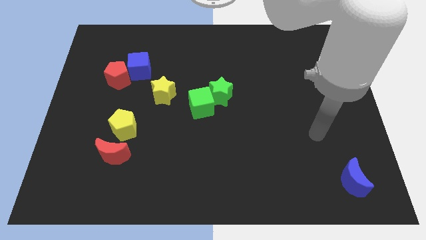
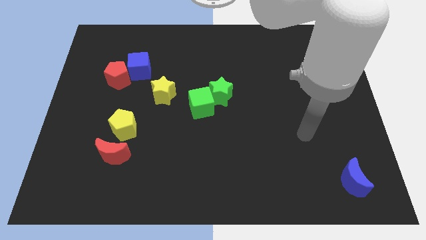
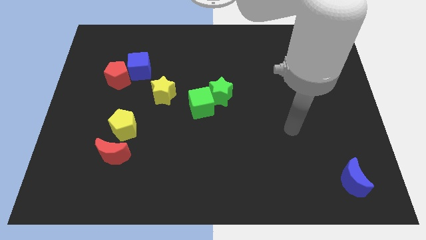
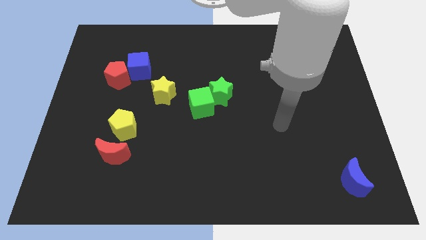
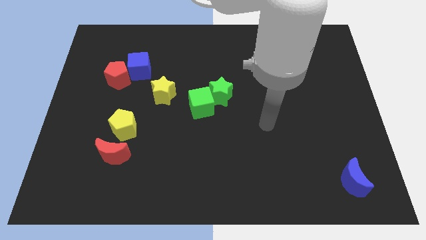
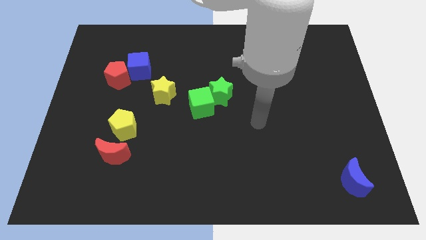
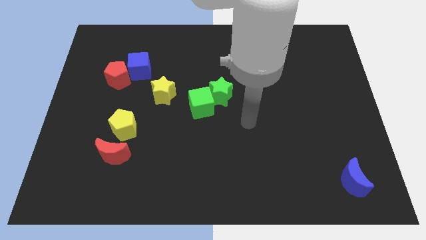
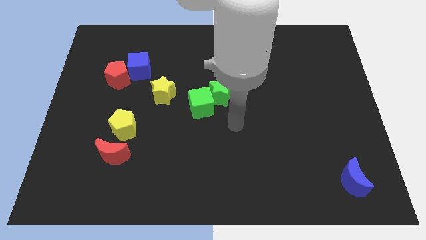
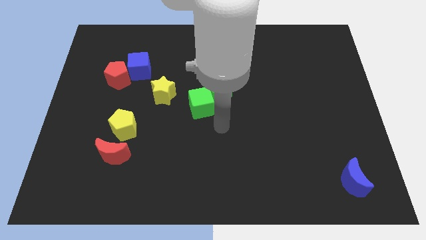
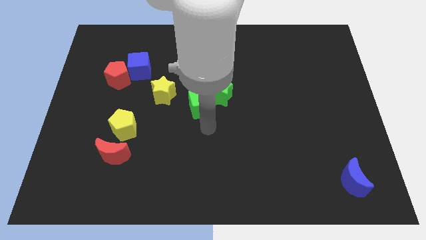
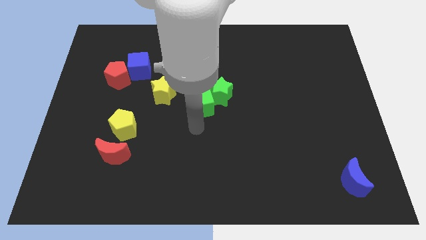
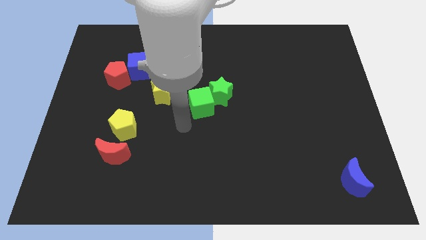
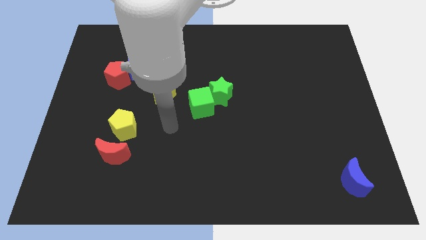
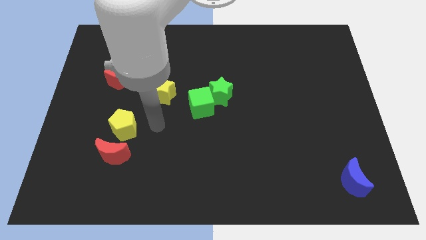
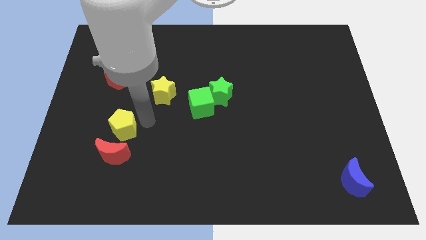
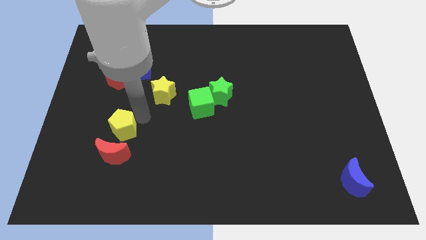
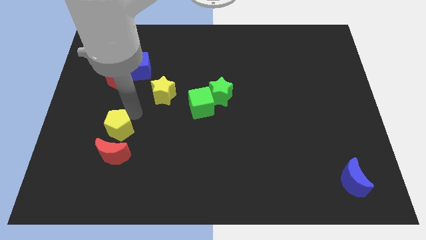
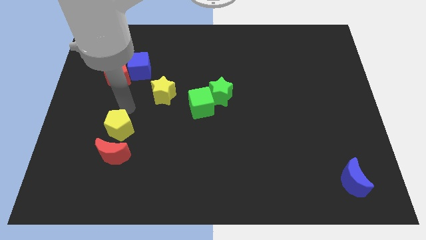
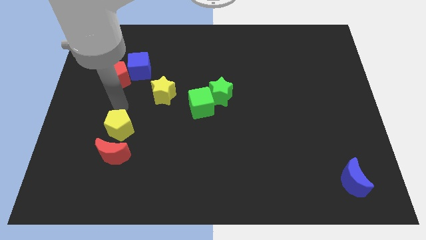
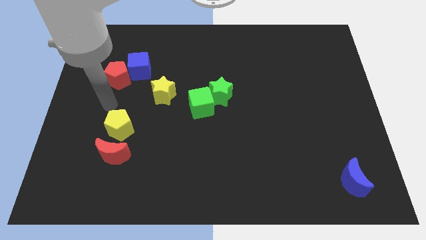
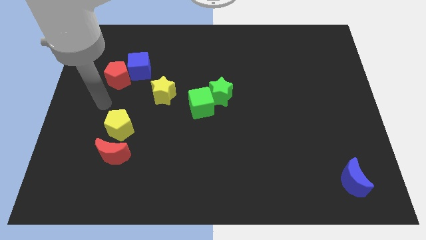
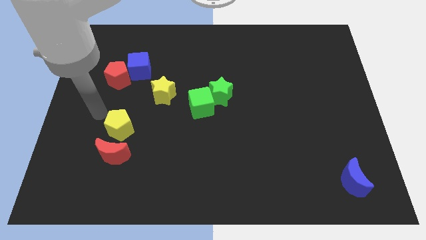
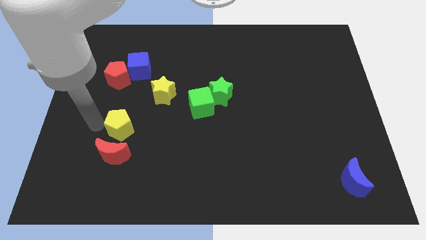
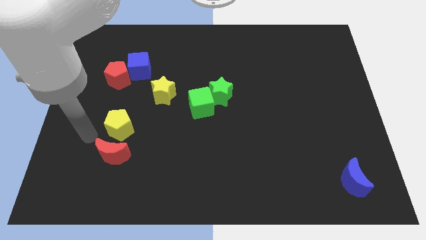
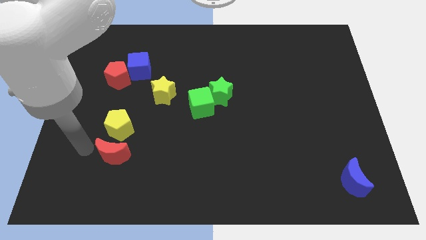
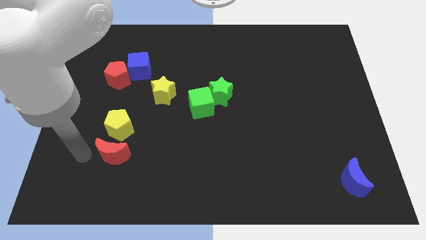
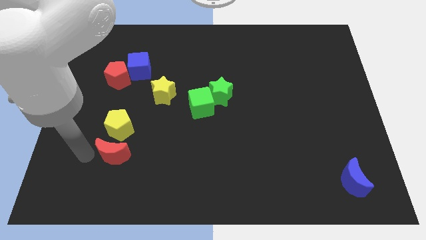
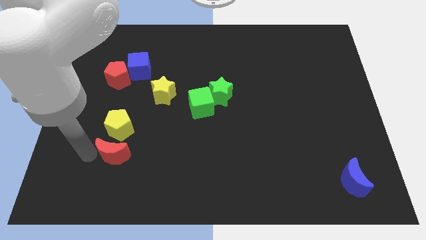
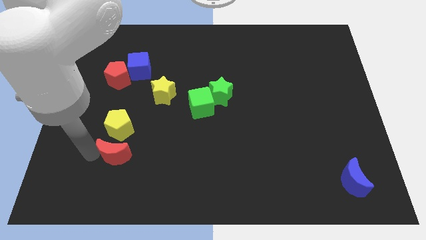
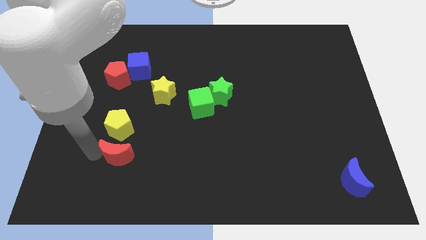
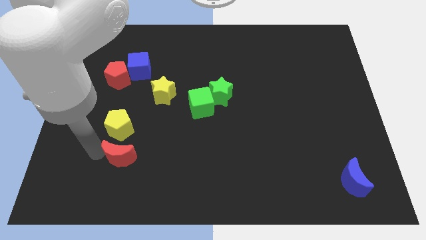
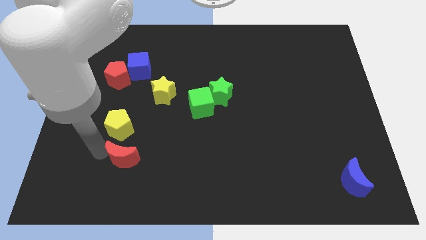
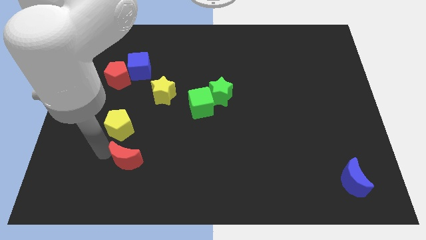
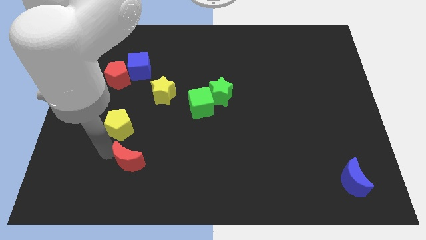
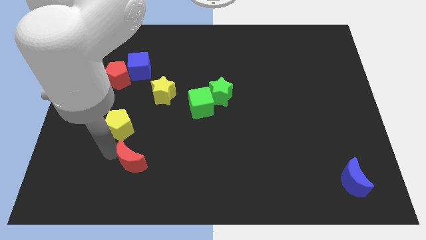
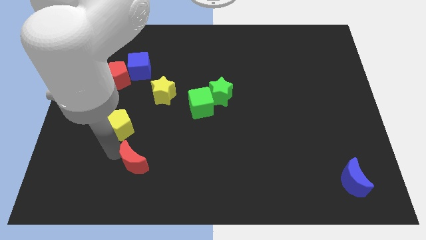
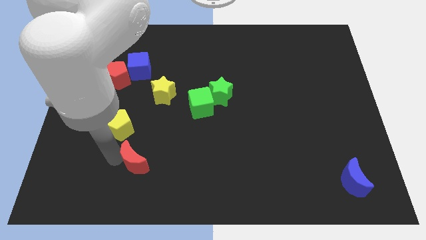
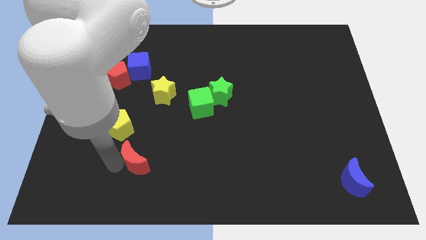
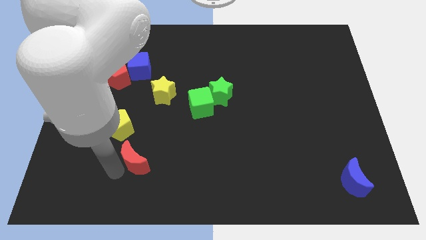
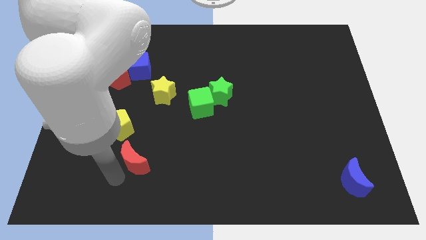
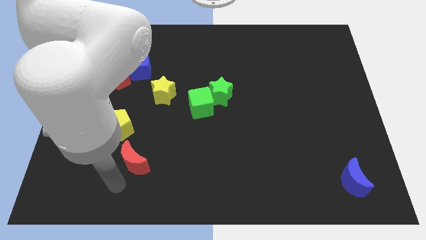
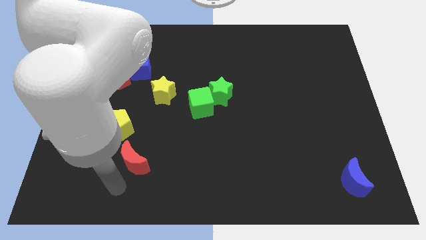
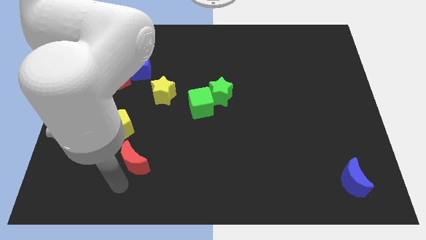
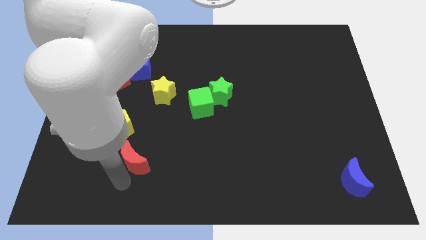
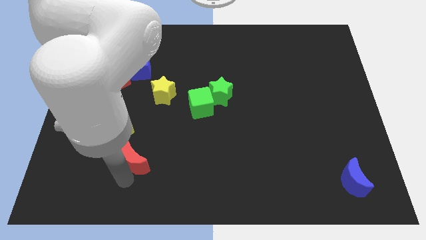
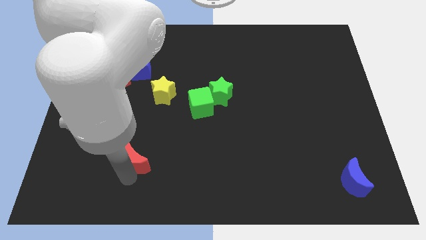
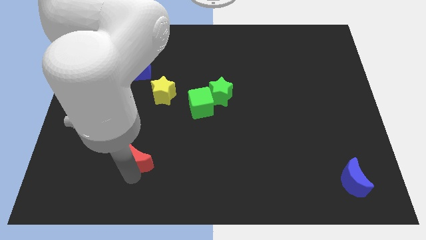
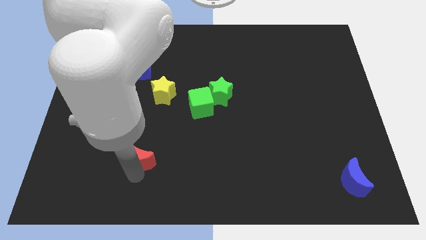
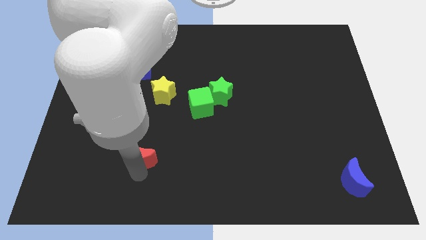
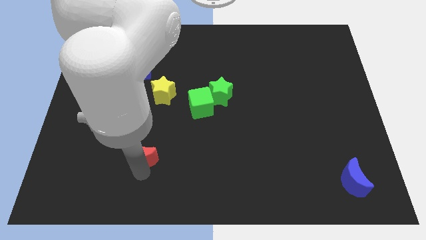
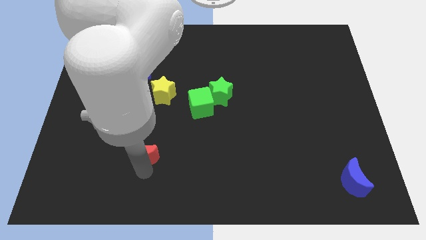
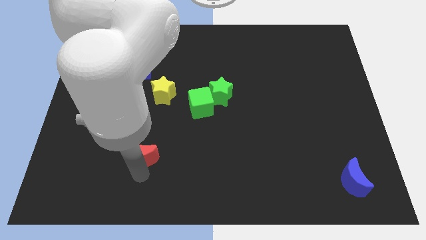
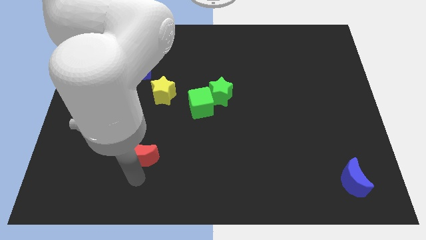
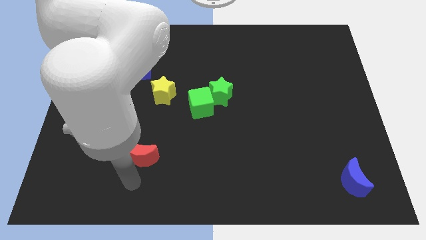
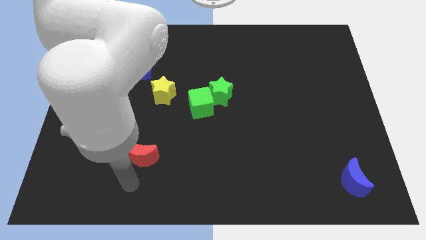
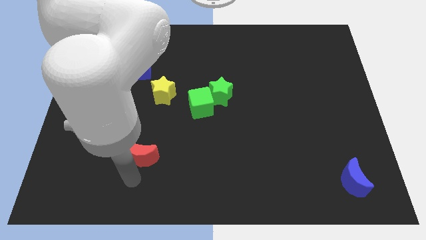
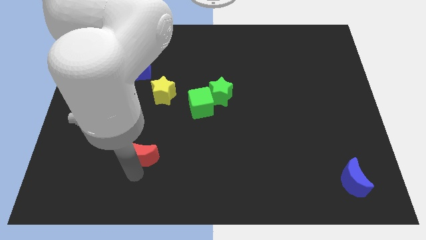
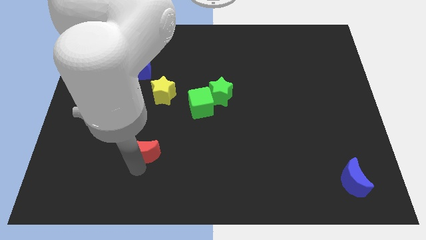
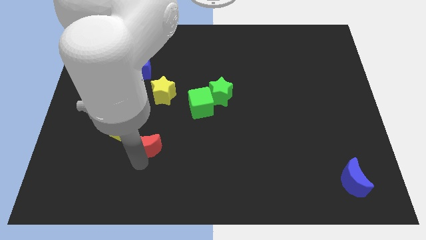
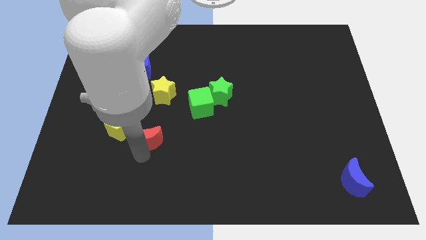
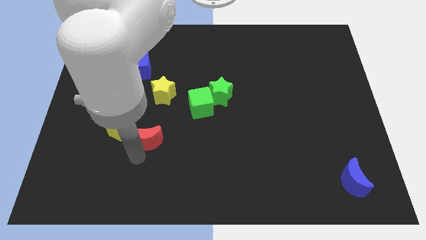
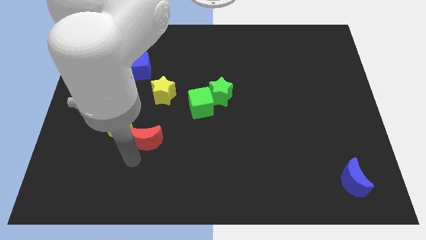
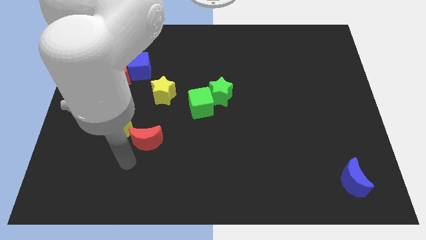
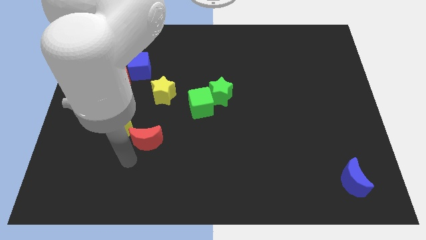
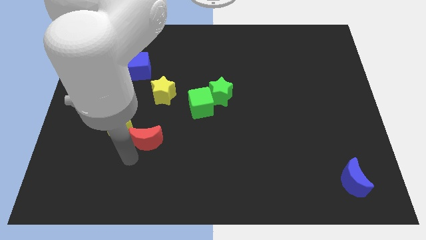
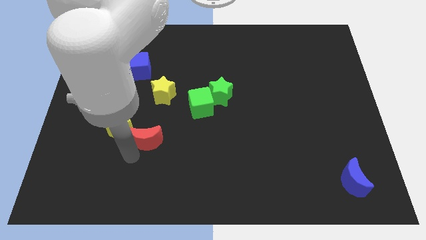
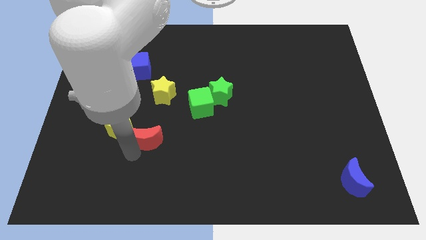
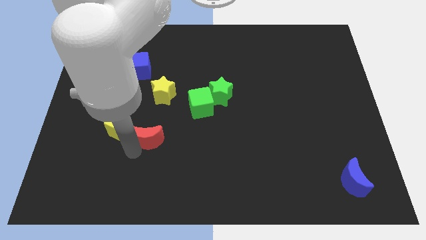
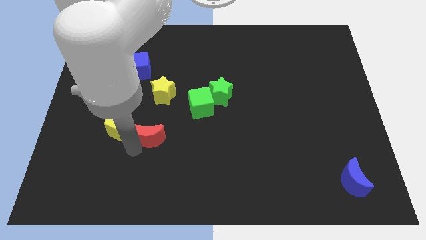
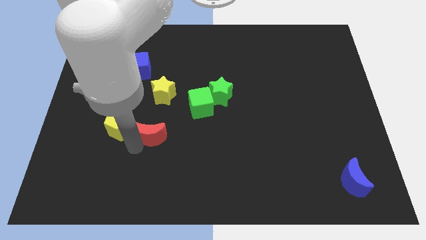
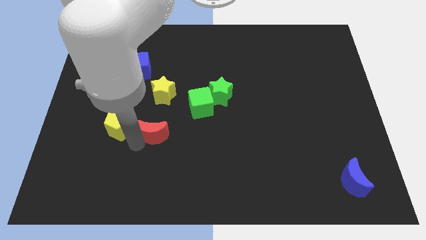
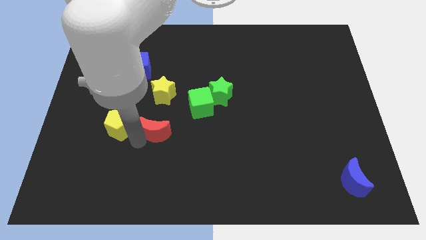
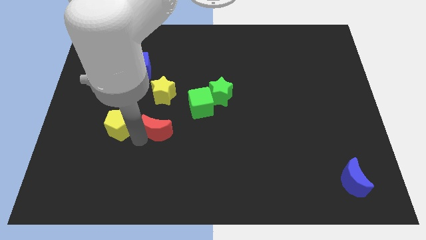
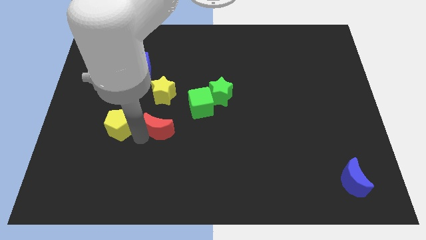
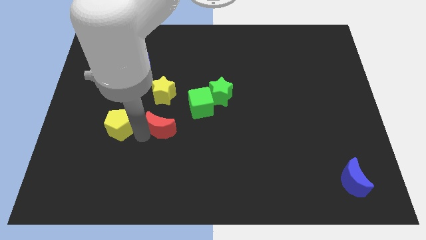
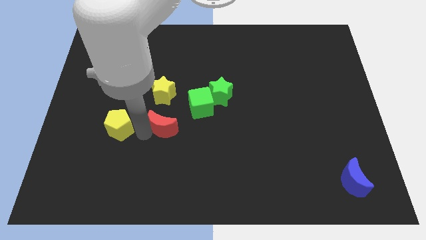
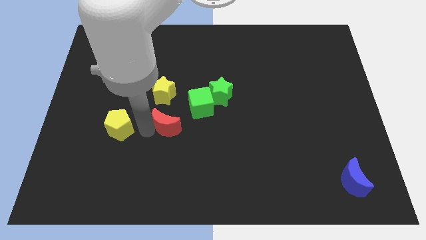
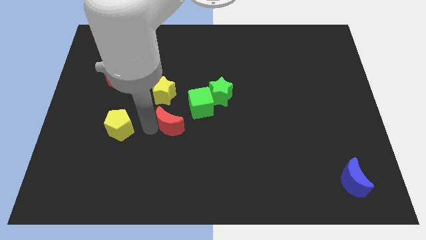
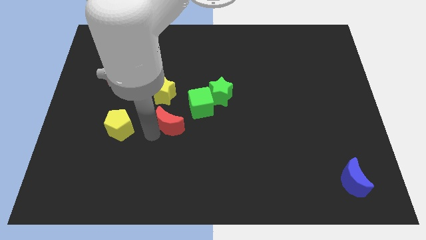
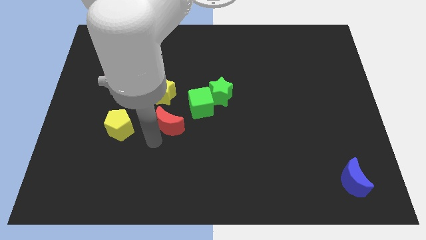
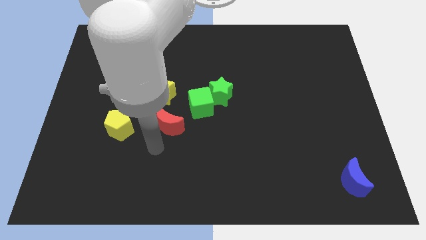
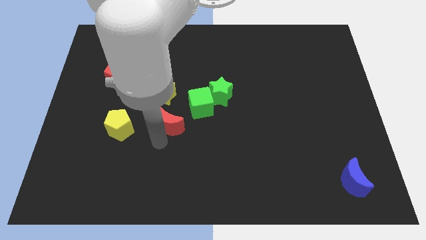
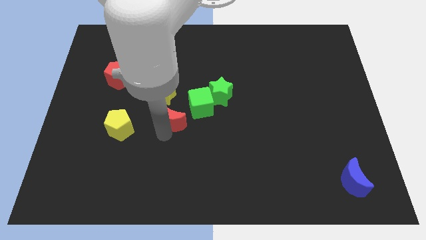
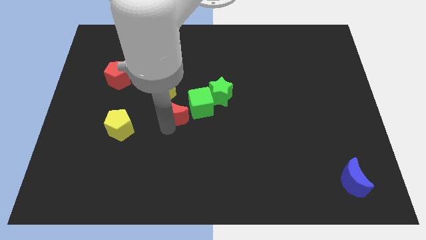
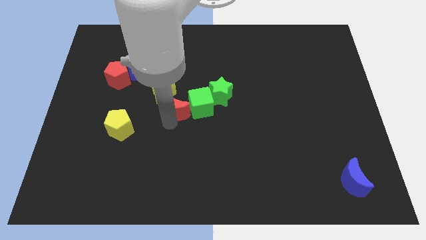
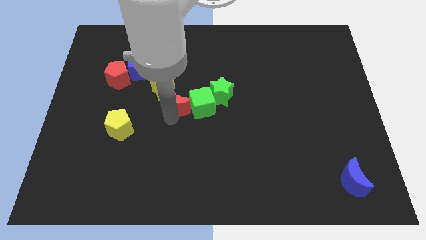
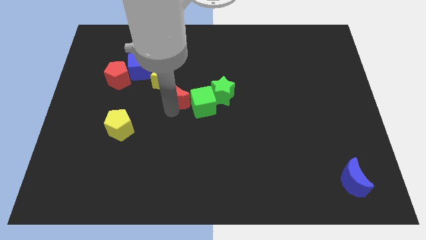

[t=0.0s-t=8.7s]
slide the red moon diagonally up and to the right
